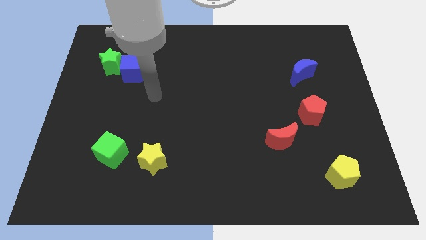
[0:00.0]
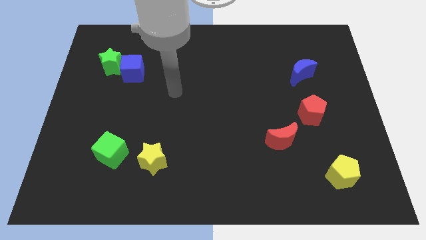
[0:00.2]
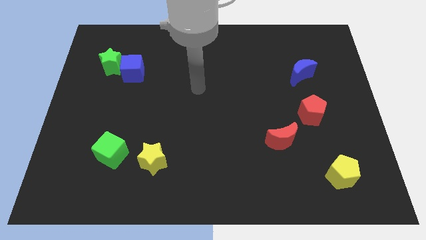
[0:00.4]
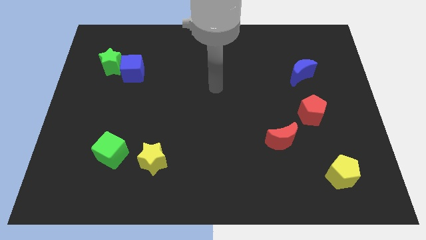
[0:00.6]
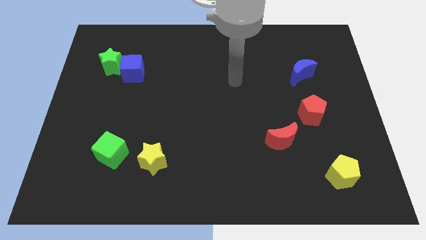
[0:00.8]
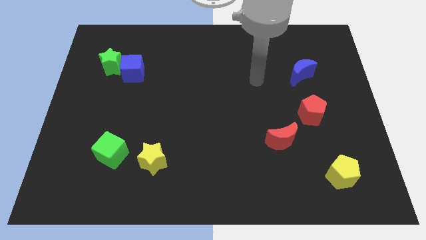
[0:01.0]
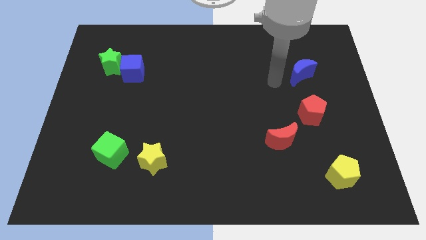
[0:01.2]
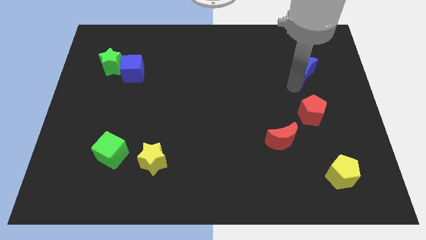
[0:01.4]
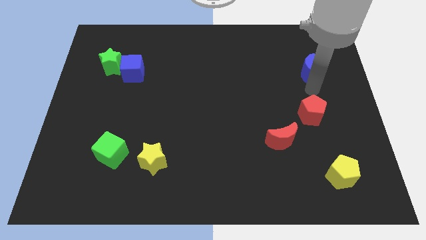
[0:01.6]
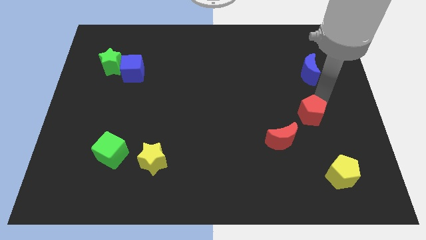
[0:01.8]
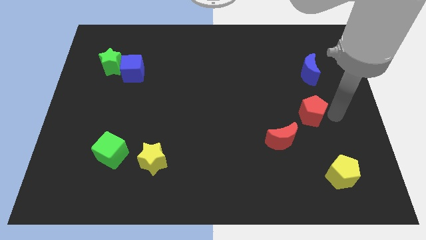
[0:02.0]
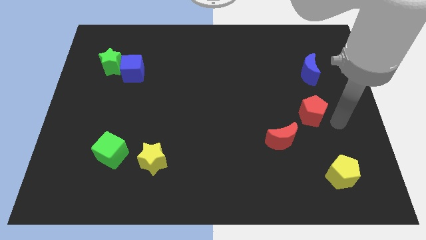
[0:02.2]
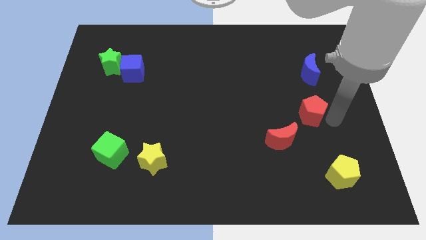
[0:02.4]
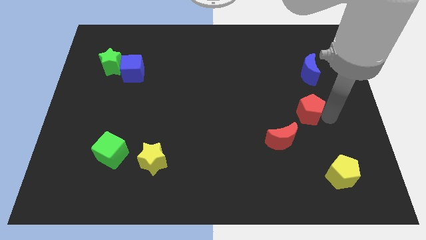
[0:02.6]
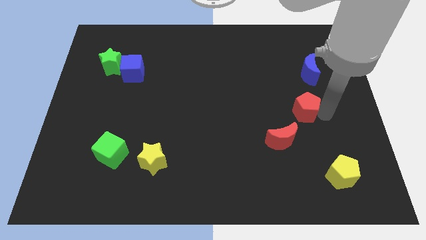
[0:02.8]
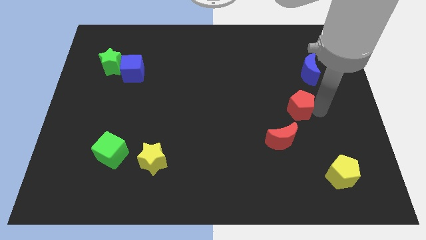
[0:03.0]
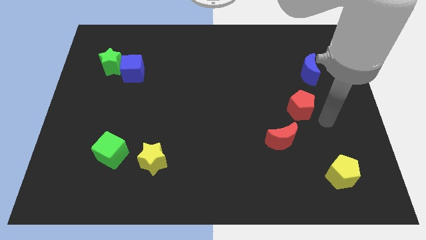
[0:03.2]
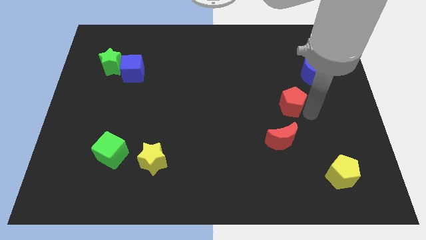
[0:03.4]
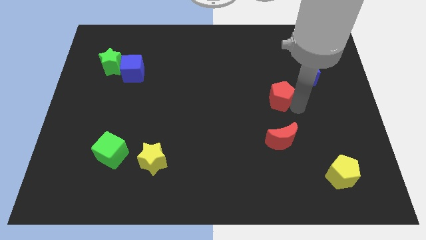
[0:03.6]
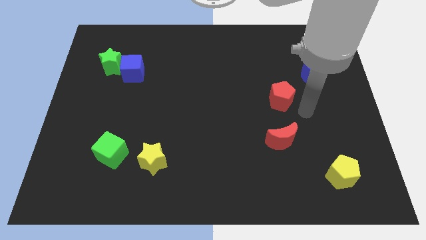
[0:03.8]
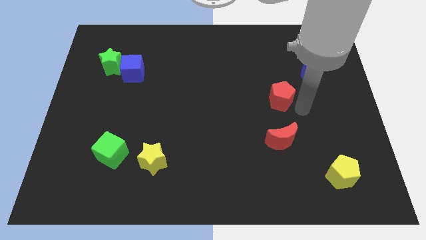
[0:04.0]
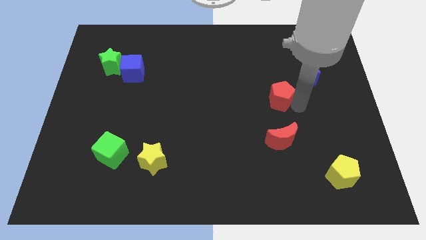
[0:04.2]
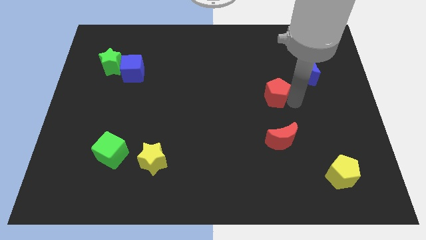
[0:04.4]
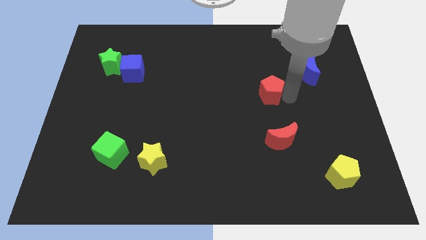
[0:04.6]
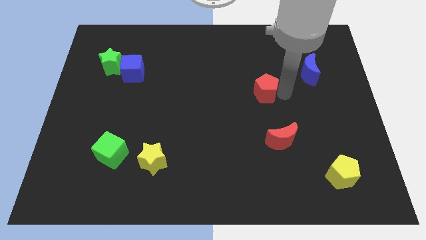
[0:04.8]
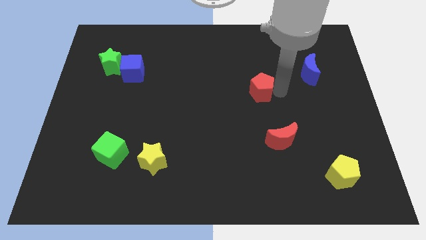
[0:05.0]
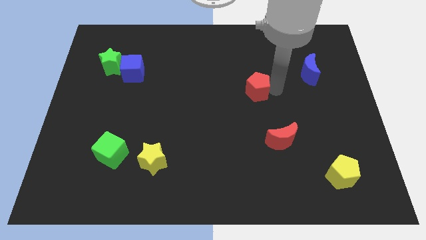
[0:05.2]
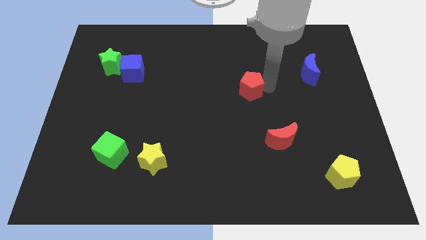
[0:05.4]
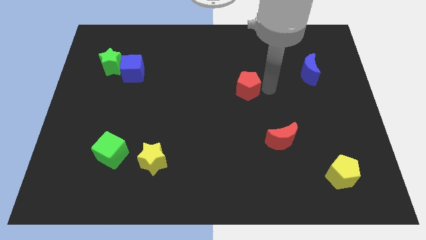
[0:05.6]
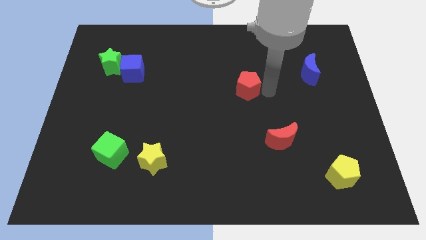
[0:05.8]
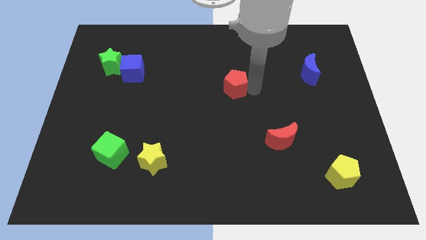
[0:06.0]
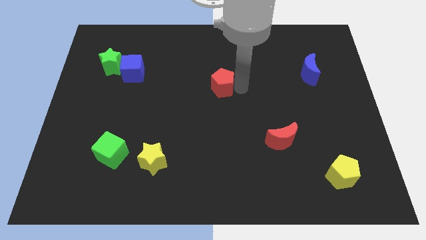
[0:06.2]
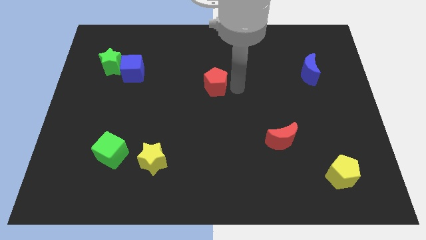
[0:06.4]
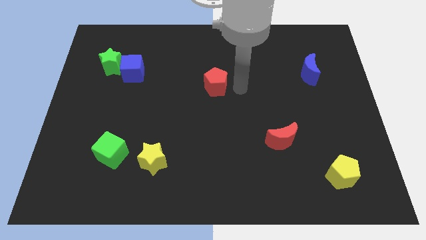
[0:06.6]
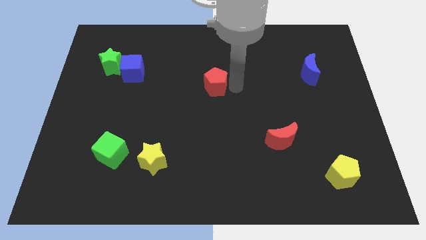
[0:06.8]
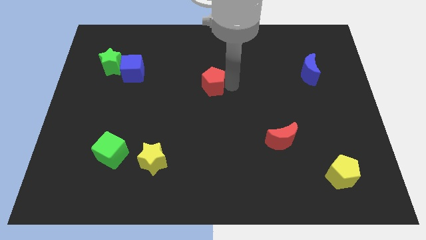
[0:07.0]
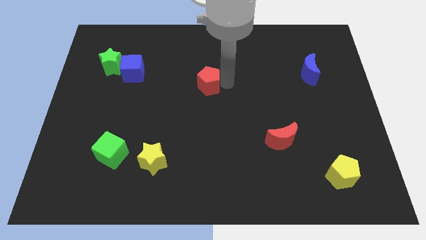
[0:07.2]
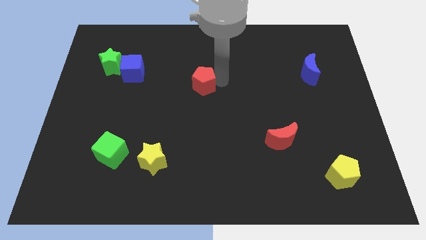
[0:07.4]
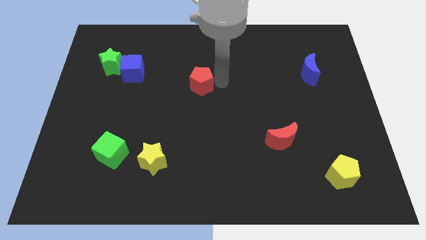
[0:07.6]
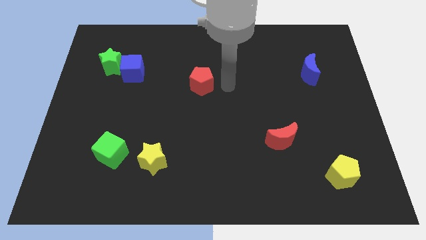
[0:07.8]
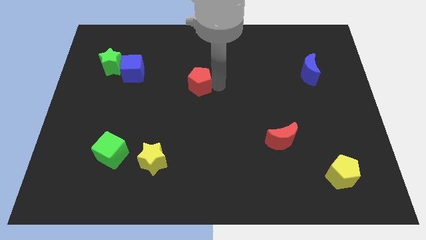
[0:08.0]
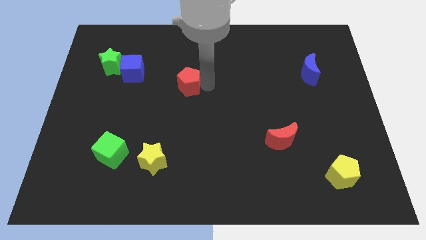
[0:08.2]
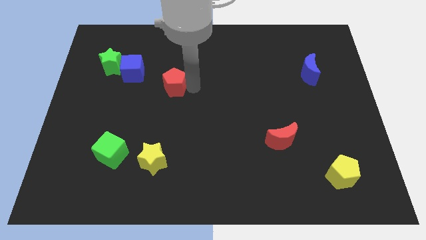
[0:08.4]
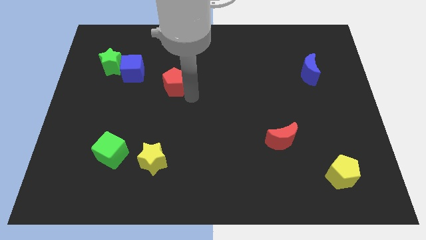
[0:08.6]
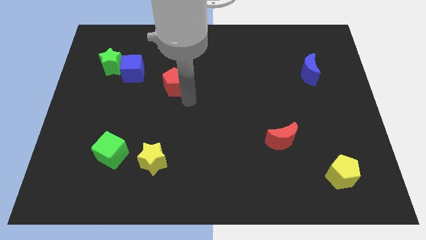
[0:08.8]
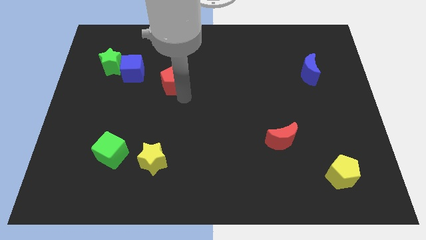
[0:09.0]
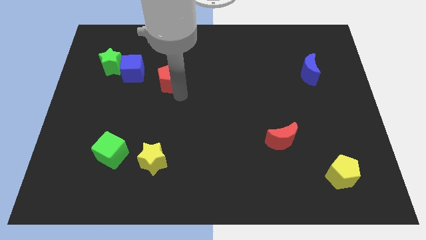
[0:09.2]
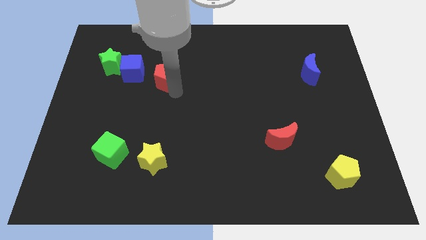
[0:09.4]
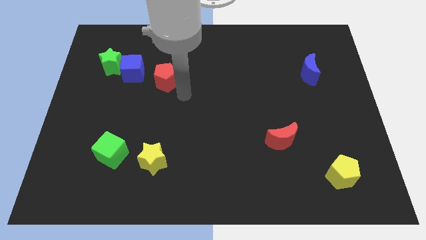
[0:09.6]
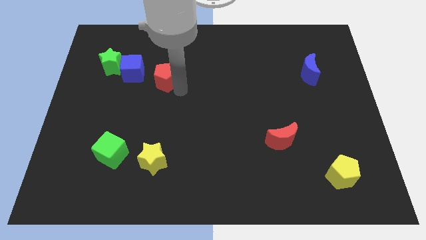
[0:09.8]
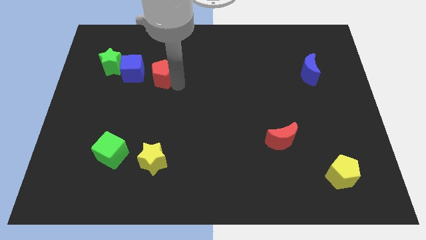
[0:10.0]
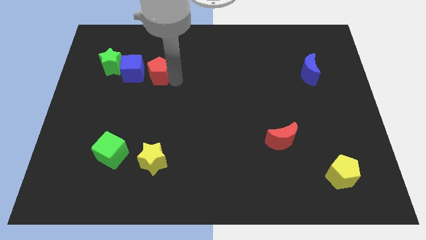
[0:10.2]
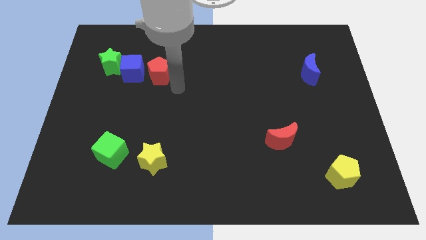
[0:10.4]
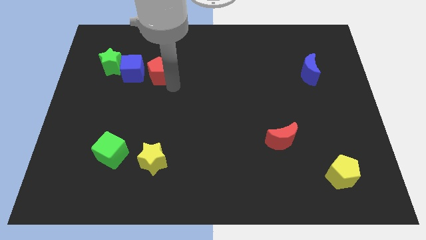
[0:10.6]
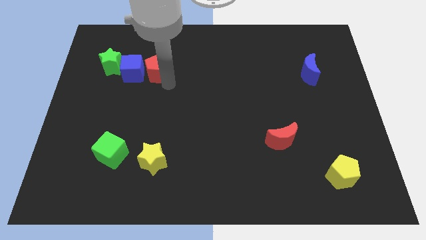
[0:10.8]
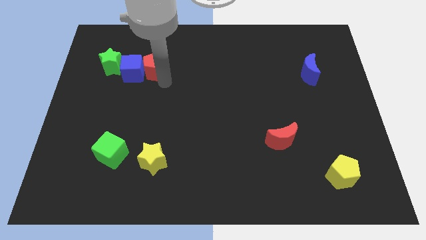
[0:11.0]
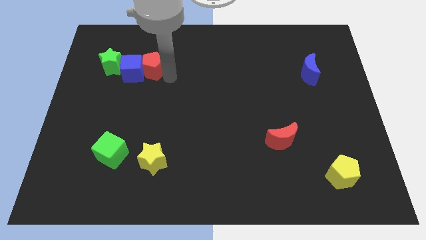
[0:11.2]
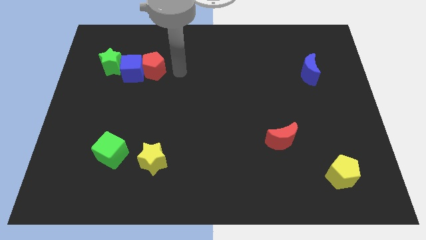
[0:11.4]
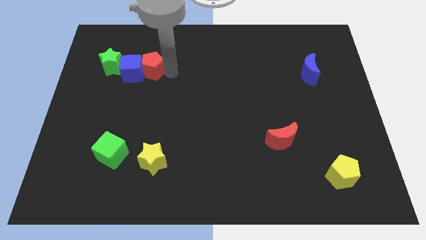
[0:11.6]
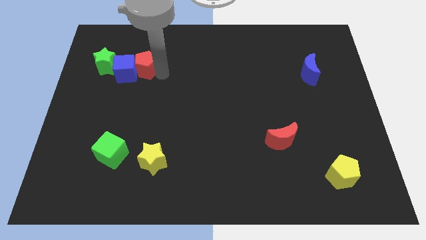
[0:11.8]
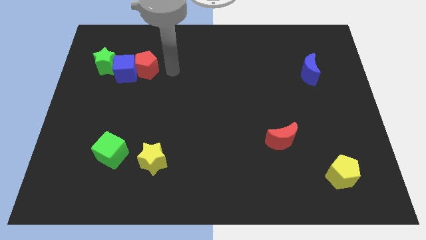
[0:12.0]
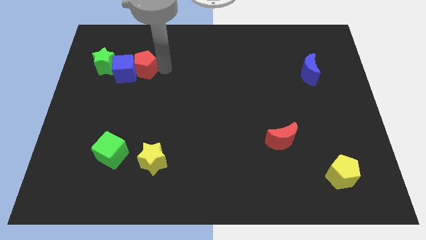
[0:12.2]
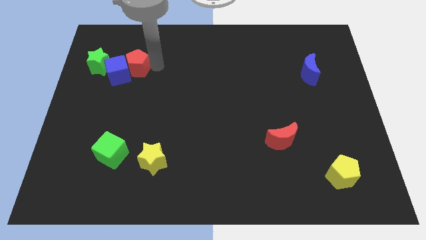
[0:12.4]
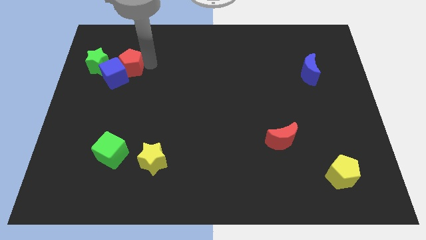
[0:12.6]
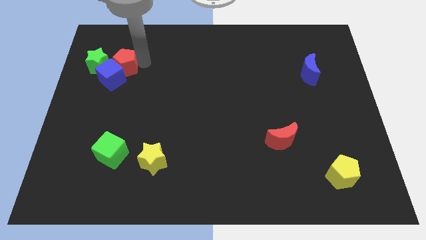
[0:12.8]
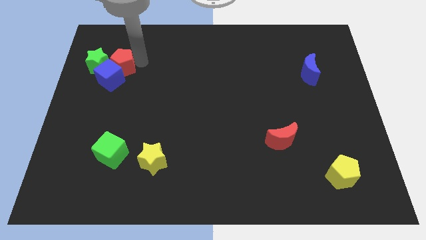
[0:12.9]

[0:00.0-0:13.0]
slide the red pentagon close to the green star

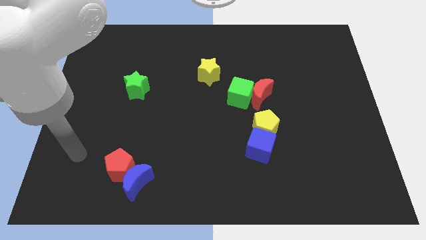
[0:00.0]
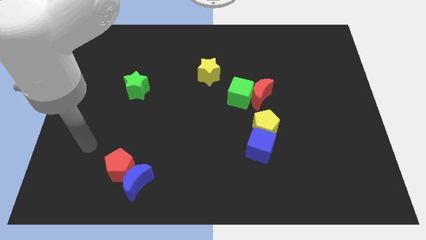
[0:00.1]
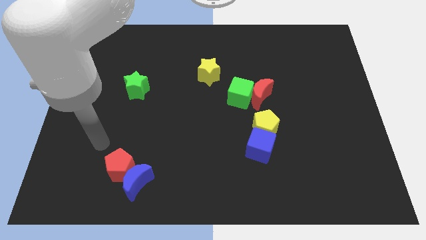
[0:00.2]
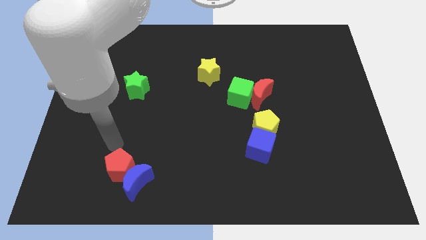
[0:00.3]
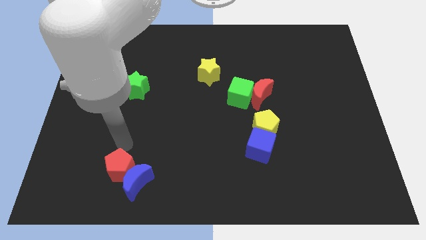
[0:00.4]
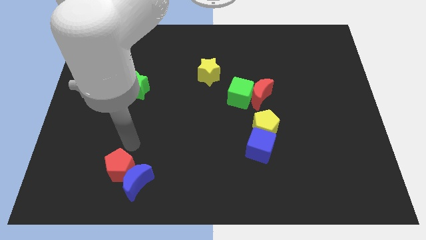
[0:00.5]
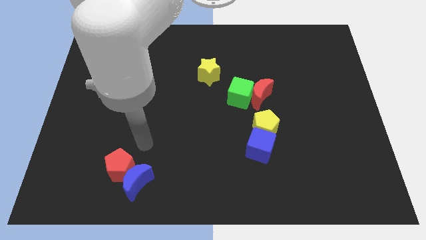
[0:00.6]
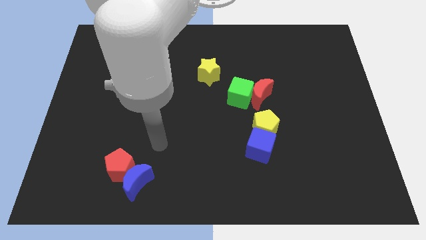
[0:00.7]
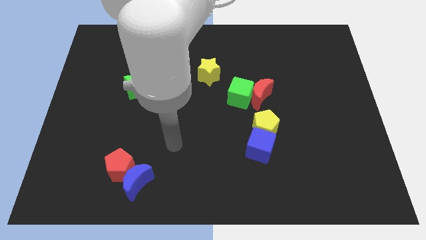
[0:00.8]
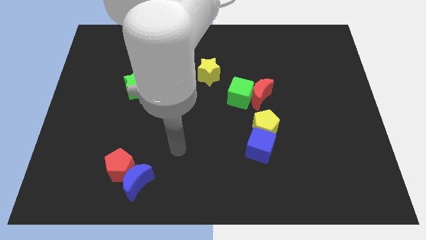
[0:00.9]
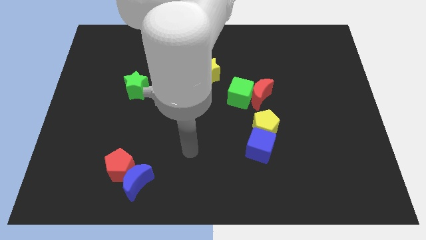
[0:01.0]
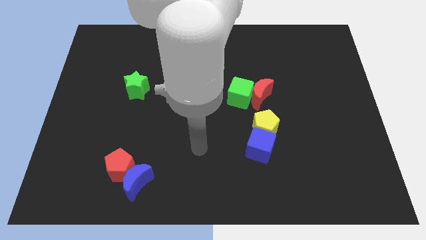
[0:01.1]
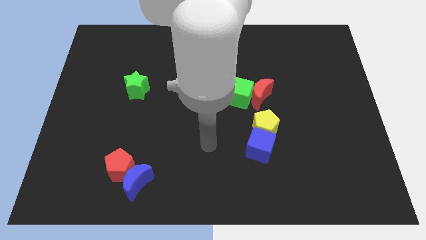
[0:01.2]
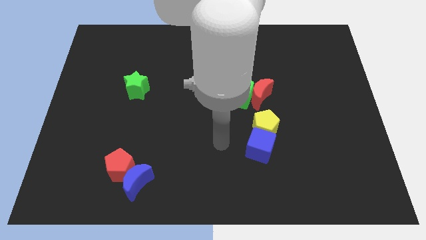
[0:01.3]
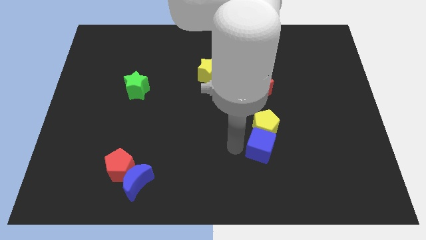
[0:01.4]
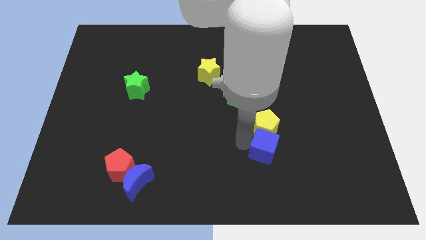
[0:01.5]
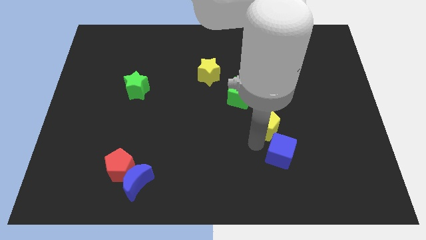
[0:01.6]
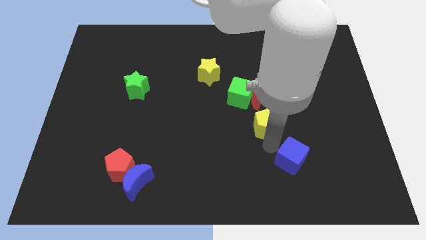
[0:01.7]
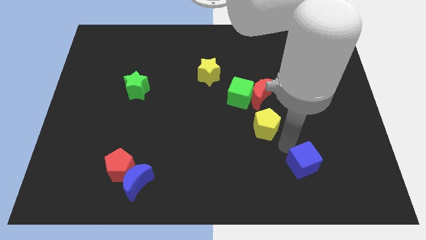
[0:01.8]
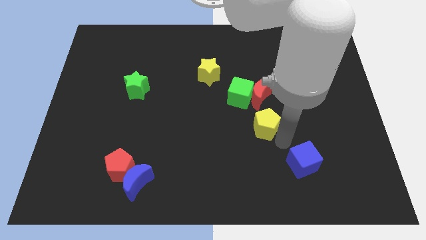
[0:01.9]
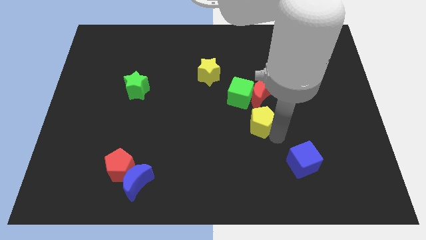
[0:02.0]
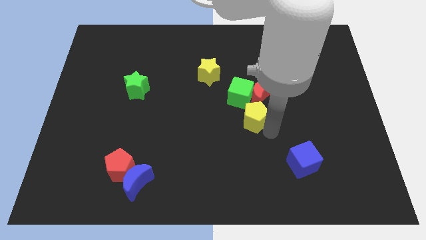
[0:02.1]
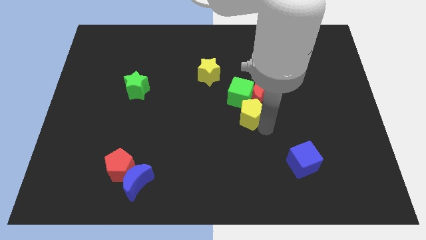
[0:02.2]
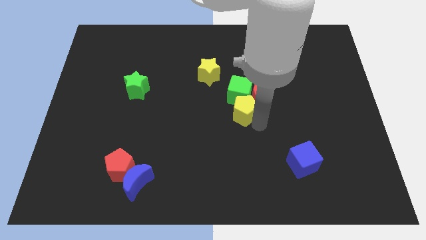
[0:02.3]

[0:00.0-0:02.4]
slide the yellow pentagon towards the green cube
